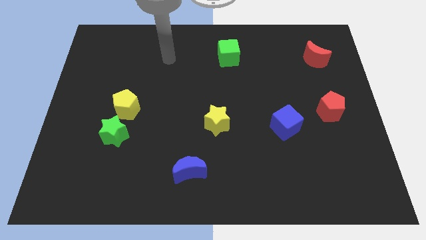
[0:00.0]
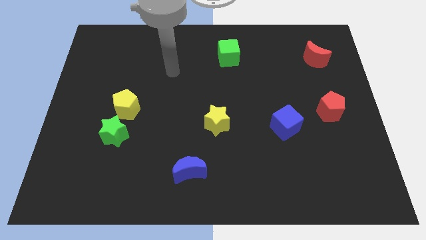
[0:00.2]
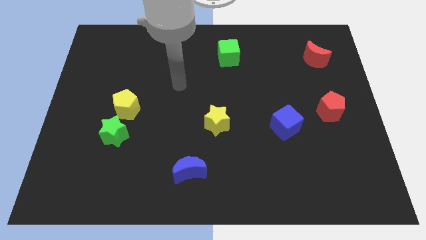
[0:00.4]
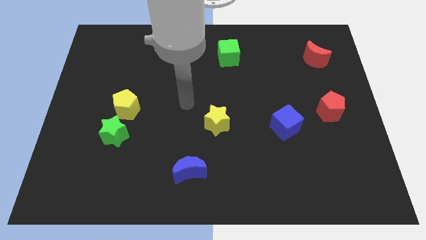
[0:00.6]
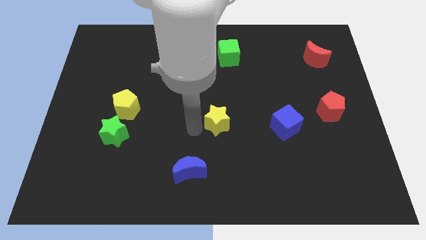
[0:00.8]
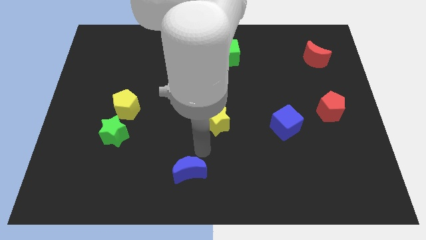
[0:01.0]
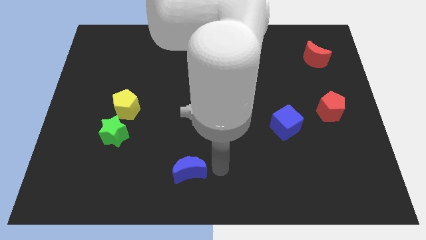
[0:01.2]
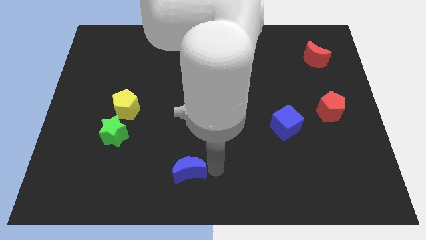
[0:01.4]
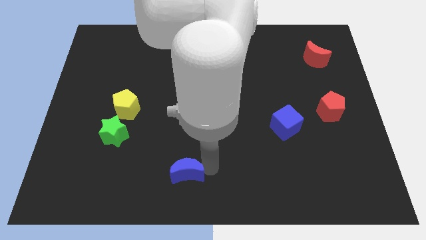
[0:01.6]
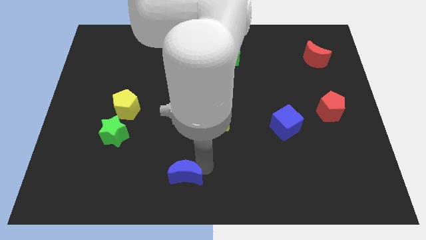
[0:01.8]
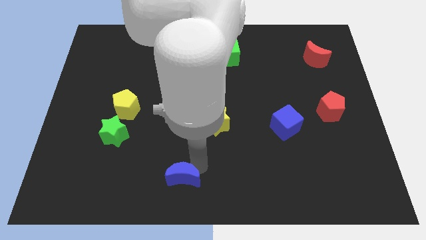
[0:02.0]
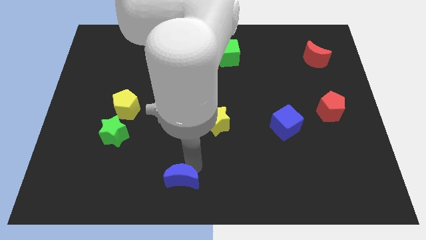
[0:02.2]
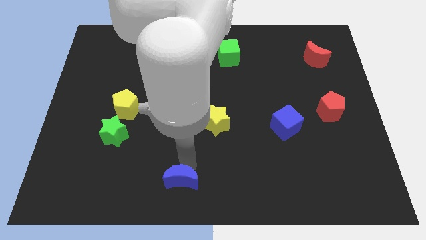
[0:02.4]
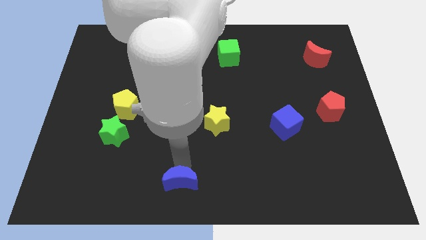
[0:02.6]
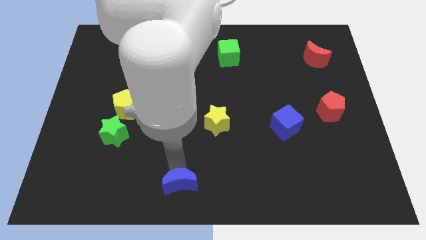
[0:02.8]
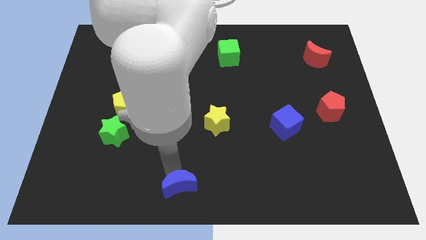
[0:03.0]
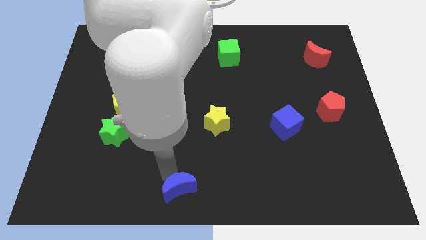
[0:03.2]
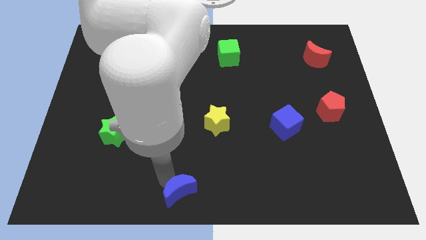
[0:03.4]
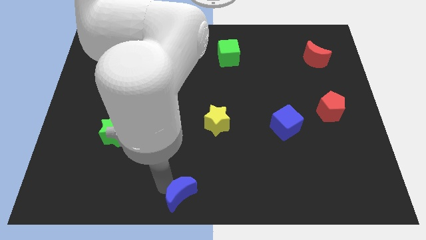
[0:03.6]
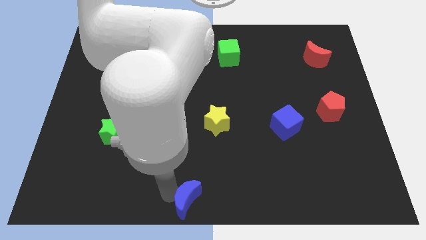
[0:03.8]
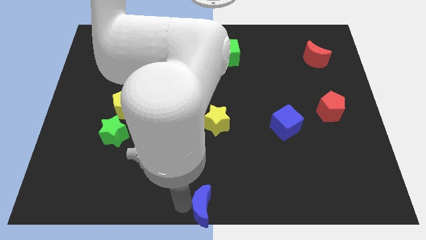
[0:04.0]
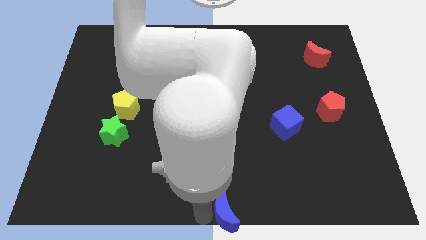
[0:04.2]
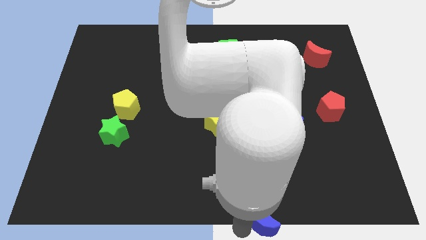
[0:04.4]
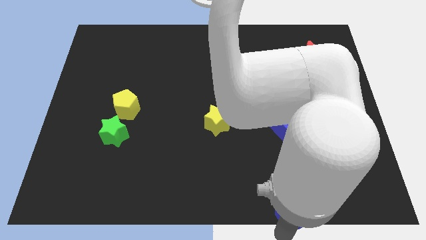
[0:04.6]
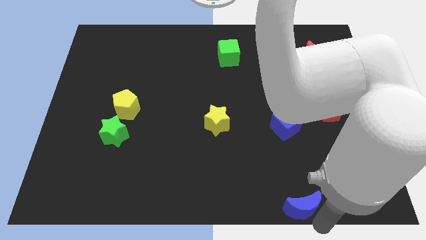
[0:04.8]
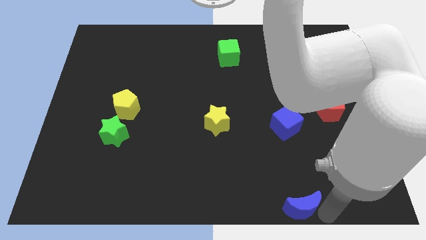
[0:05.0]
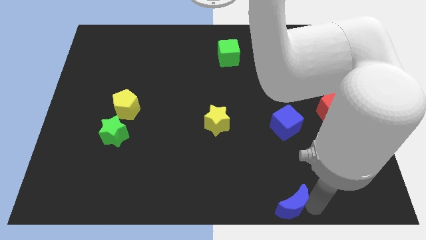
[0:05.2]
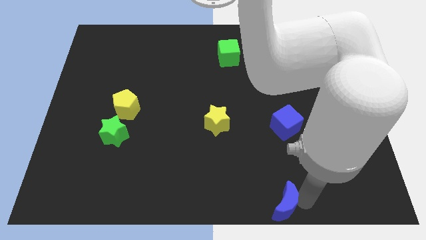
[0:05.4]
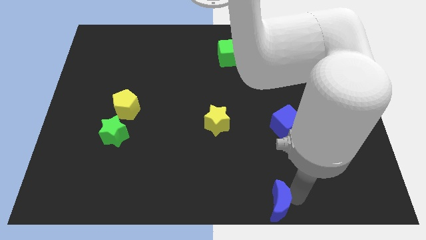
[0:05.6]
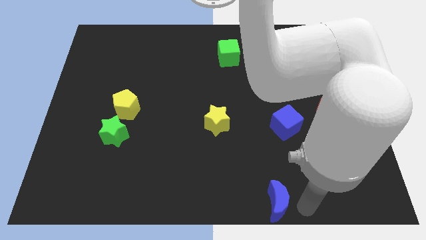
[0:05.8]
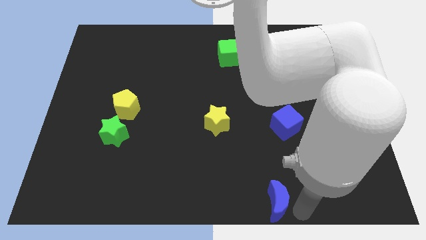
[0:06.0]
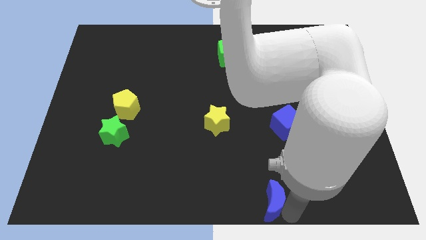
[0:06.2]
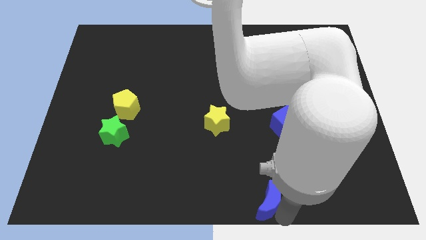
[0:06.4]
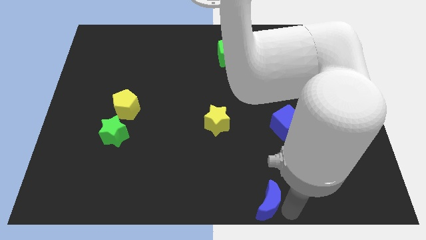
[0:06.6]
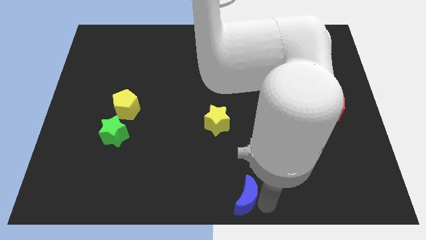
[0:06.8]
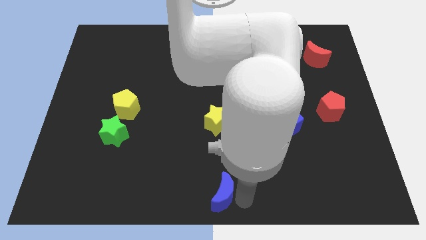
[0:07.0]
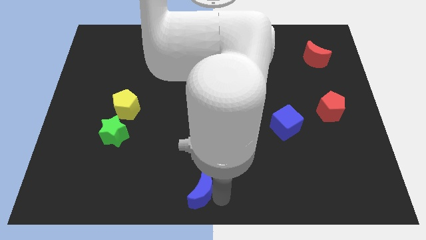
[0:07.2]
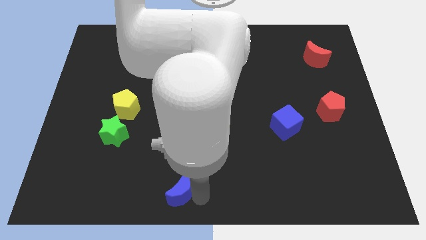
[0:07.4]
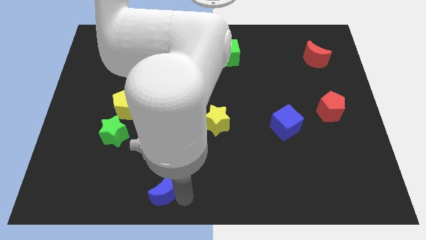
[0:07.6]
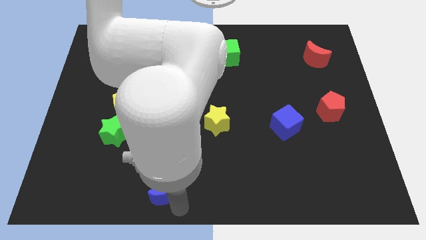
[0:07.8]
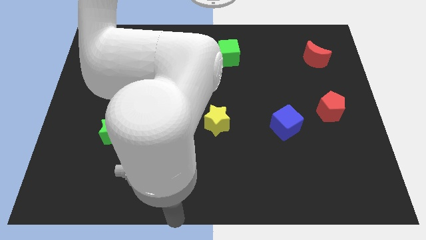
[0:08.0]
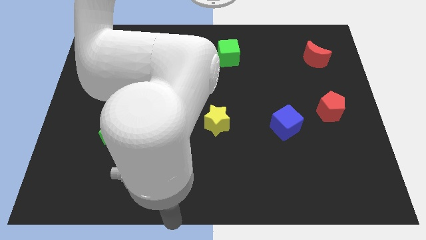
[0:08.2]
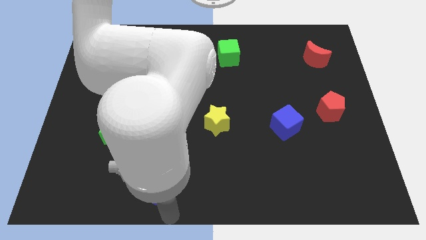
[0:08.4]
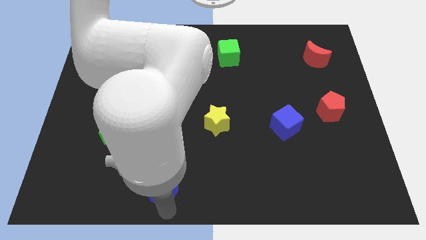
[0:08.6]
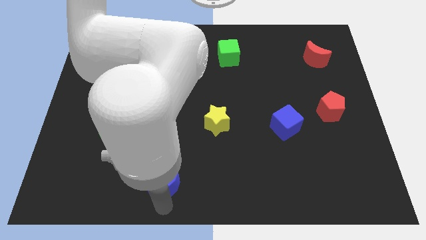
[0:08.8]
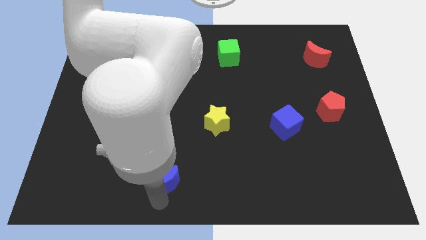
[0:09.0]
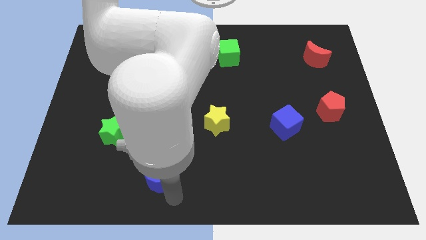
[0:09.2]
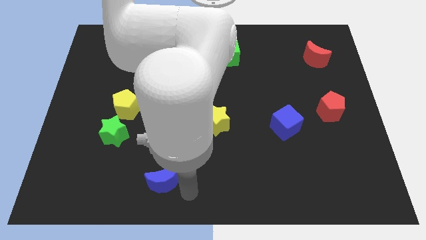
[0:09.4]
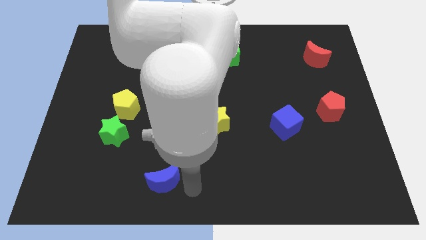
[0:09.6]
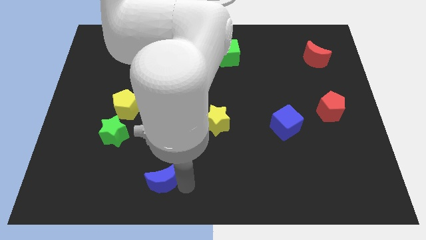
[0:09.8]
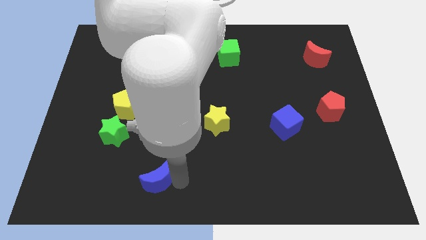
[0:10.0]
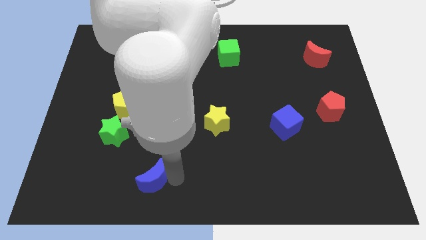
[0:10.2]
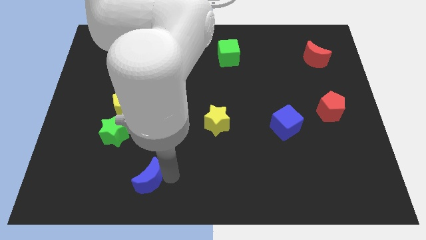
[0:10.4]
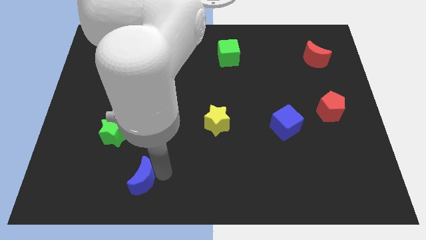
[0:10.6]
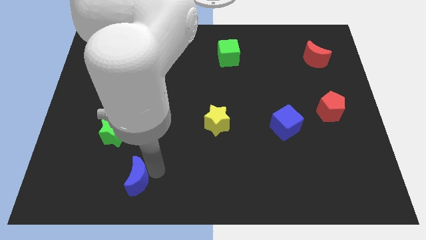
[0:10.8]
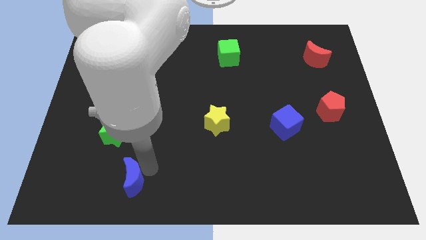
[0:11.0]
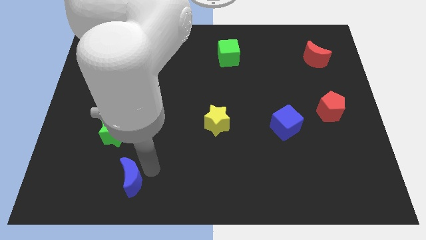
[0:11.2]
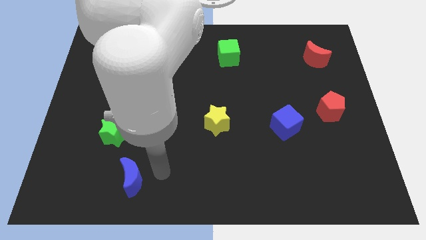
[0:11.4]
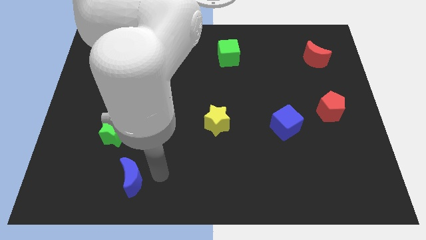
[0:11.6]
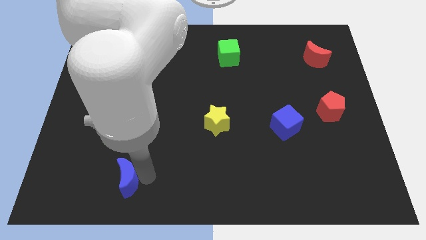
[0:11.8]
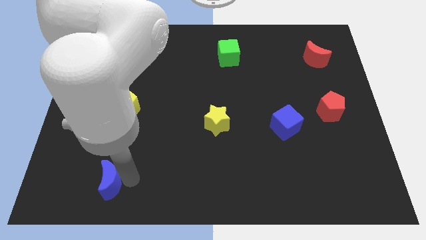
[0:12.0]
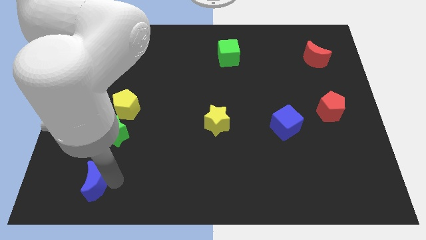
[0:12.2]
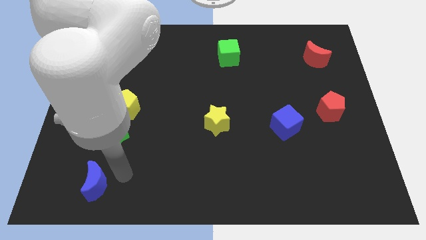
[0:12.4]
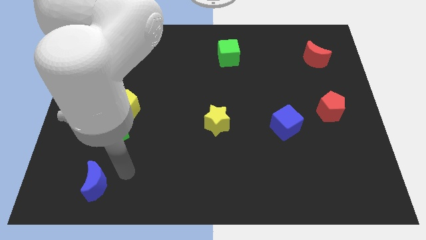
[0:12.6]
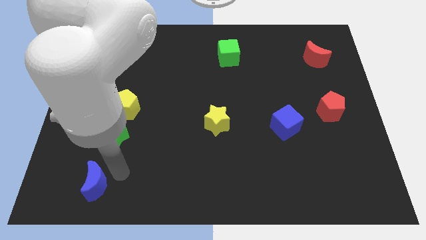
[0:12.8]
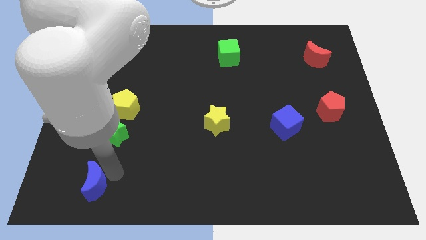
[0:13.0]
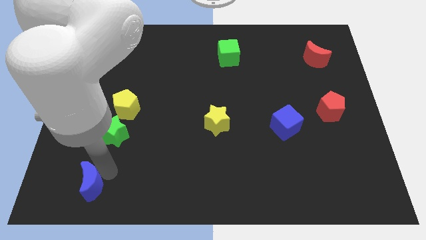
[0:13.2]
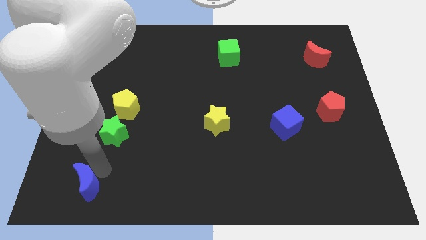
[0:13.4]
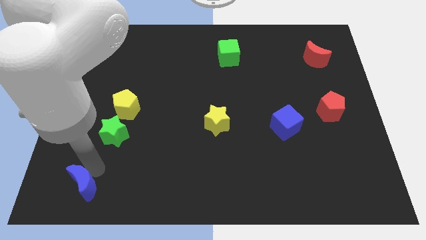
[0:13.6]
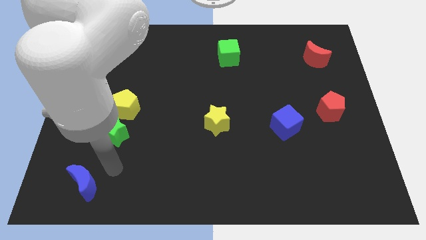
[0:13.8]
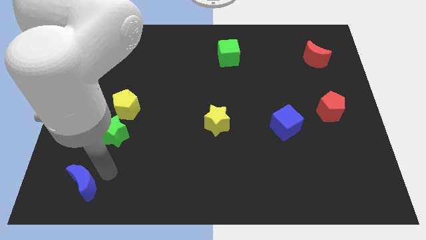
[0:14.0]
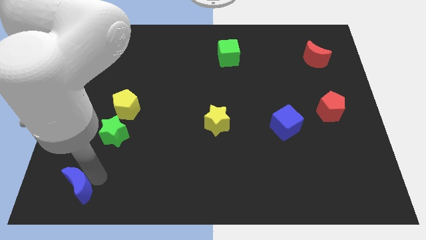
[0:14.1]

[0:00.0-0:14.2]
move the blue moon to the bottom left corner
